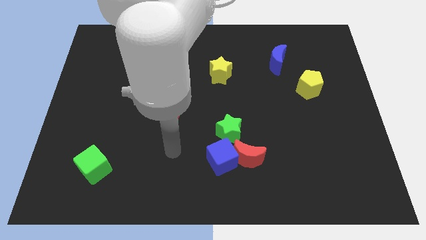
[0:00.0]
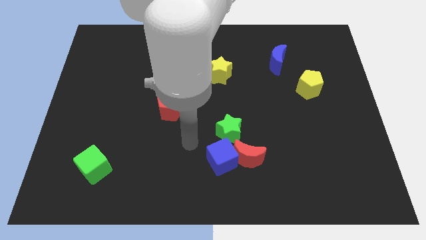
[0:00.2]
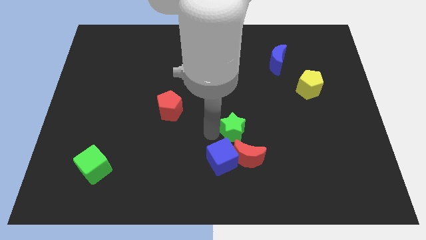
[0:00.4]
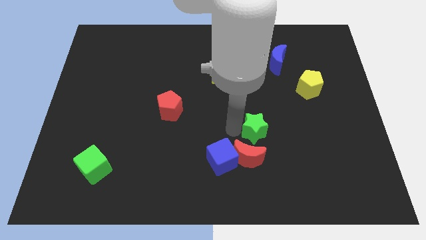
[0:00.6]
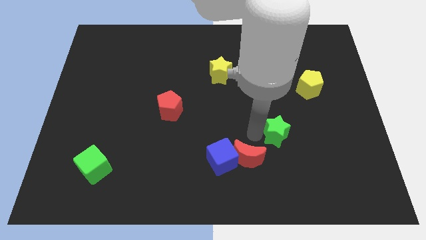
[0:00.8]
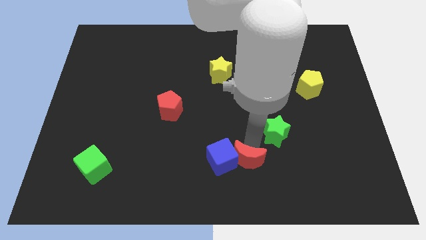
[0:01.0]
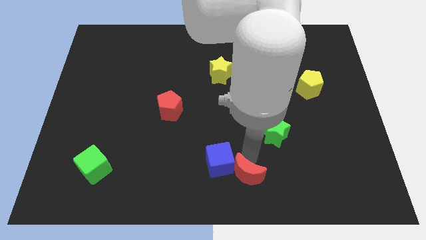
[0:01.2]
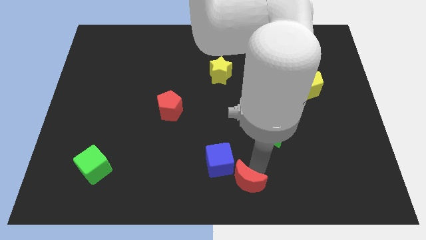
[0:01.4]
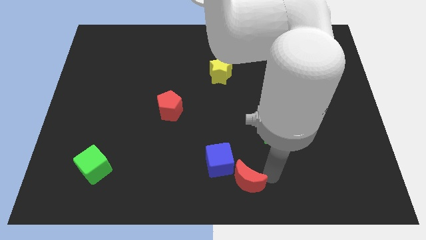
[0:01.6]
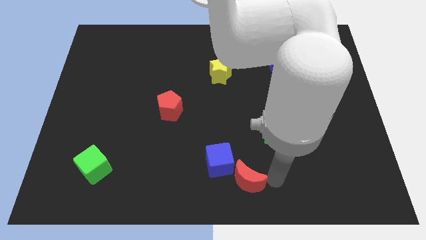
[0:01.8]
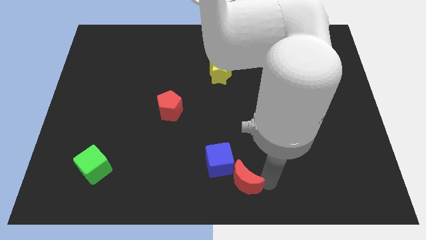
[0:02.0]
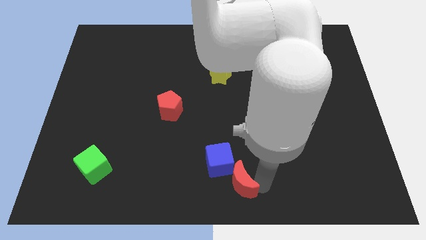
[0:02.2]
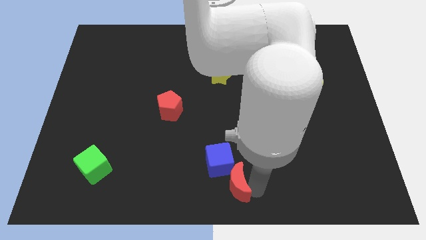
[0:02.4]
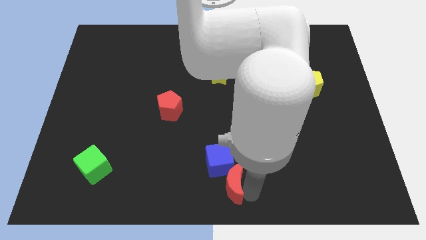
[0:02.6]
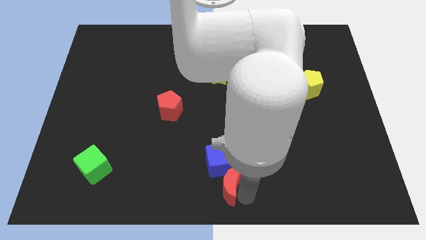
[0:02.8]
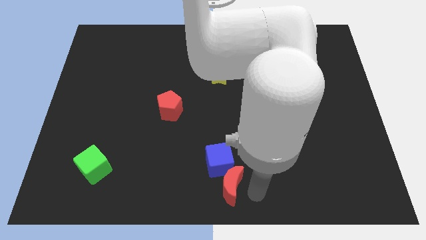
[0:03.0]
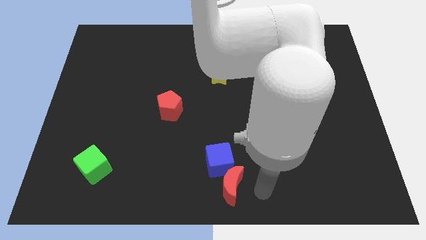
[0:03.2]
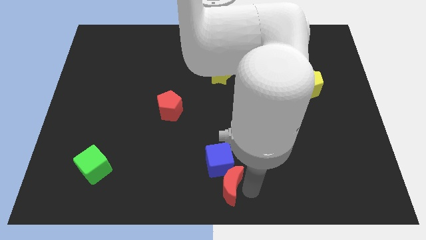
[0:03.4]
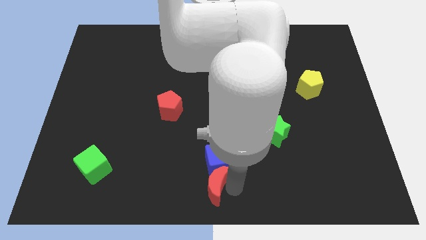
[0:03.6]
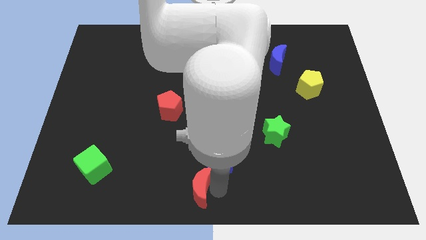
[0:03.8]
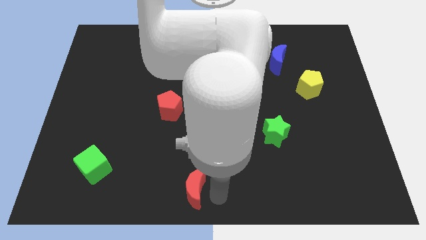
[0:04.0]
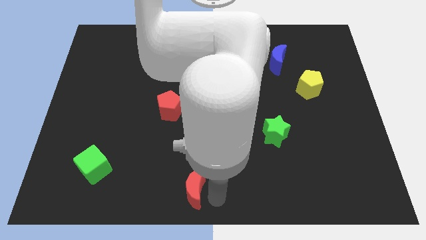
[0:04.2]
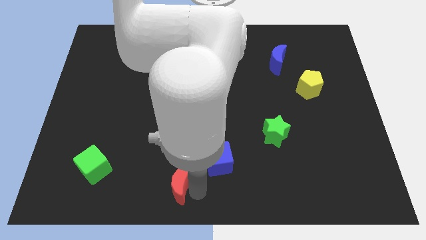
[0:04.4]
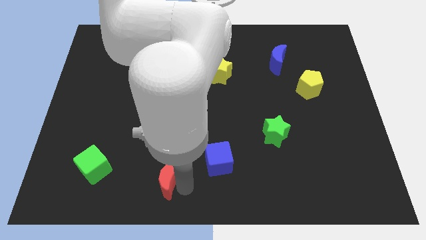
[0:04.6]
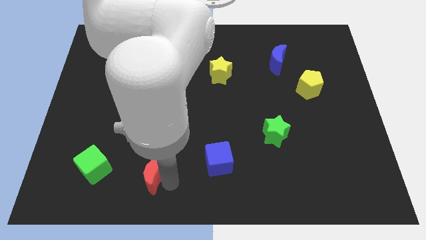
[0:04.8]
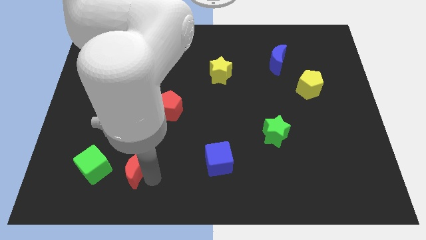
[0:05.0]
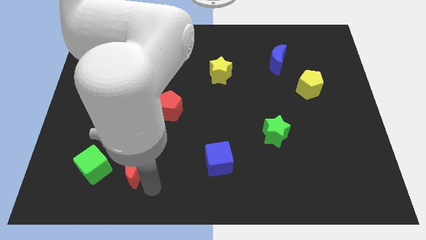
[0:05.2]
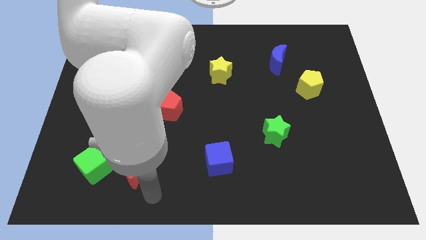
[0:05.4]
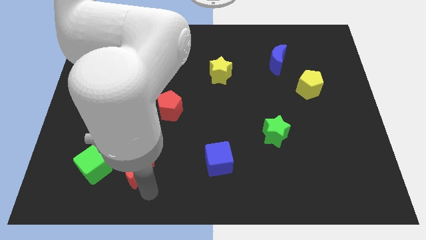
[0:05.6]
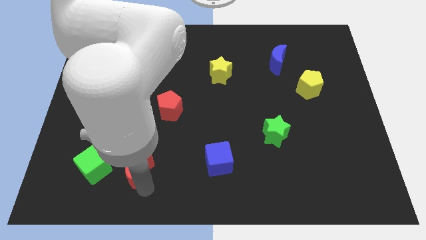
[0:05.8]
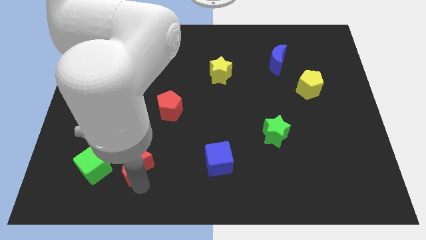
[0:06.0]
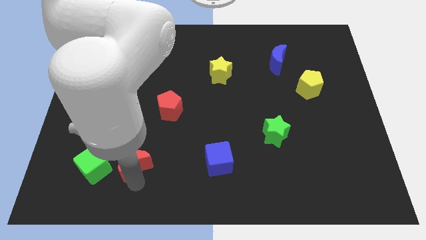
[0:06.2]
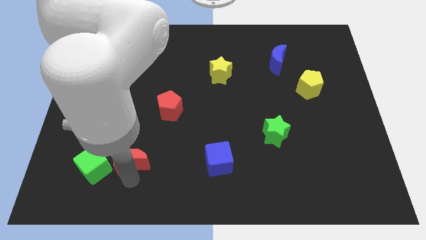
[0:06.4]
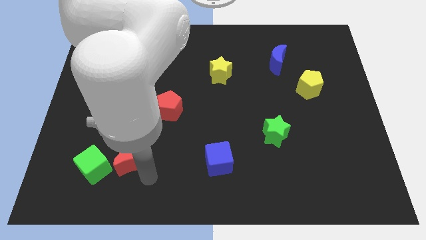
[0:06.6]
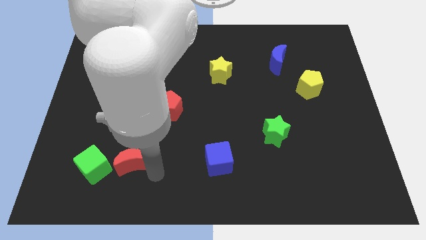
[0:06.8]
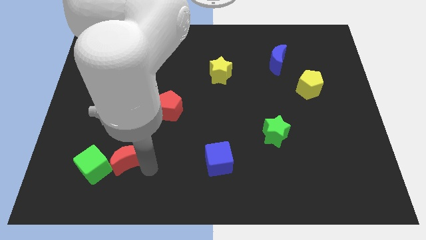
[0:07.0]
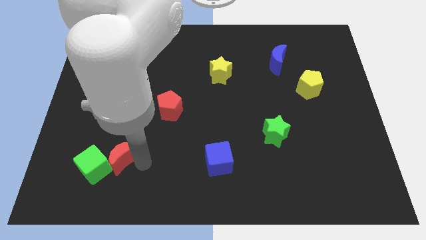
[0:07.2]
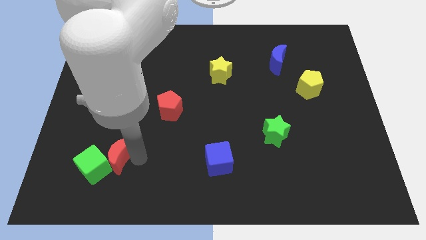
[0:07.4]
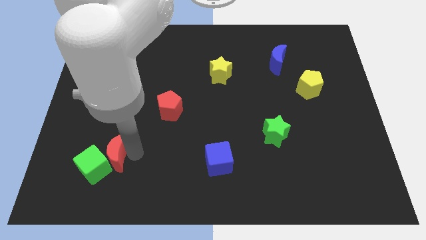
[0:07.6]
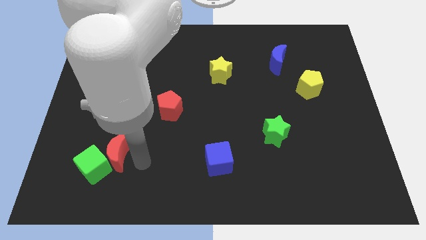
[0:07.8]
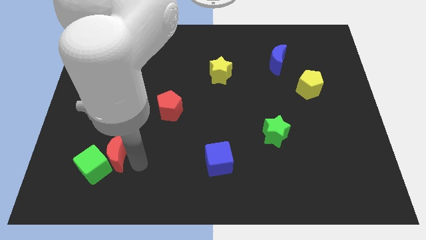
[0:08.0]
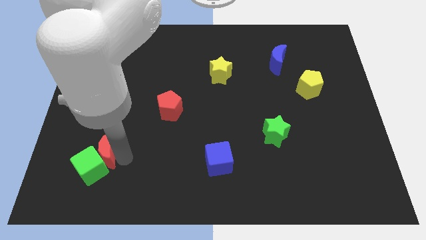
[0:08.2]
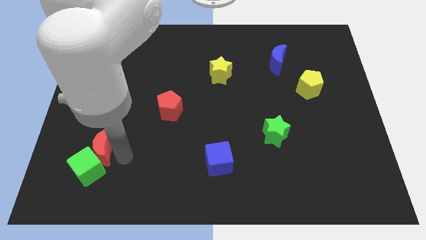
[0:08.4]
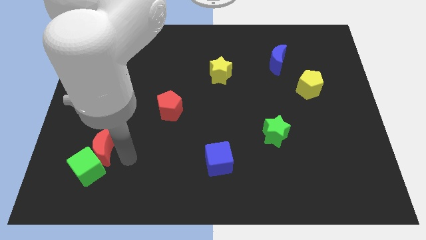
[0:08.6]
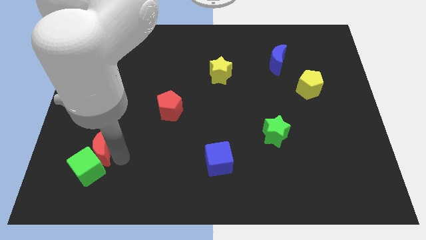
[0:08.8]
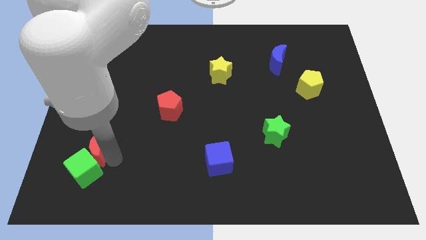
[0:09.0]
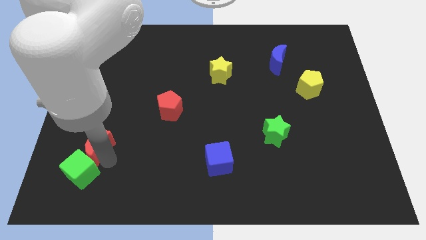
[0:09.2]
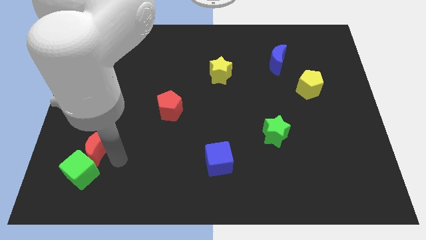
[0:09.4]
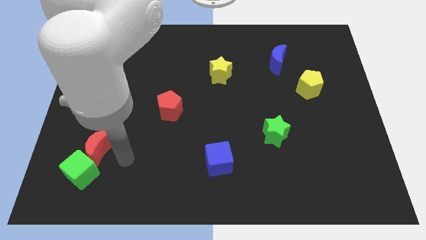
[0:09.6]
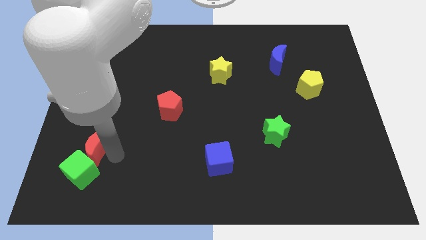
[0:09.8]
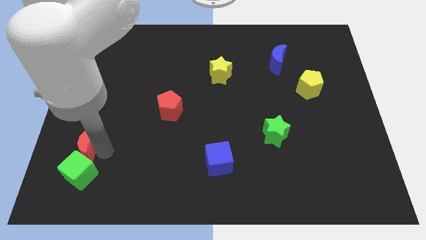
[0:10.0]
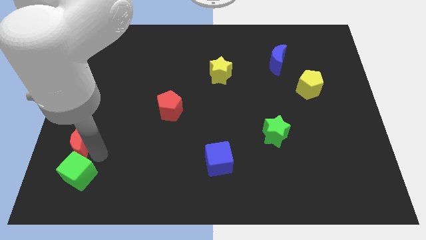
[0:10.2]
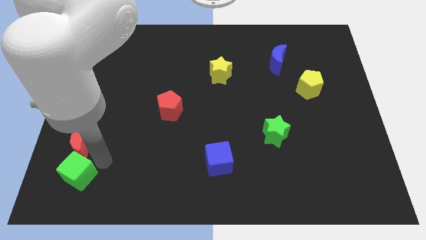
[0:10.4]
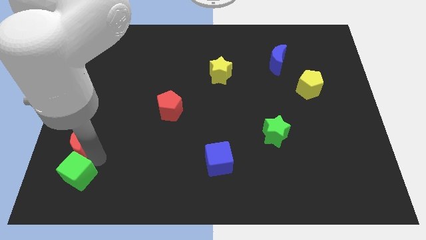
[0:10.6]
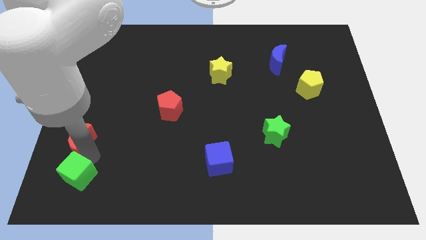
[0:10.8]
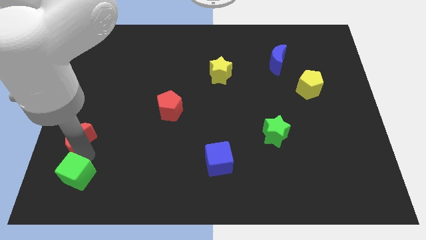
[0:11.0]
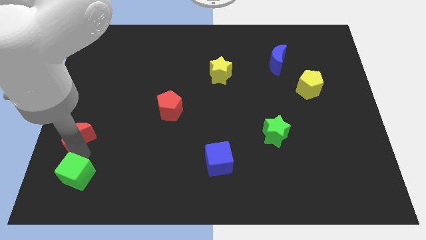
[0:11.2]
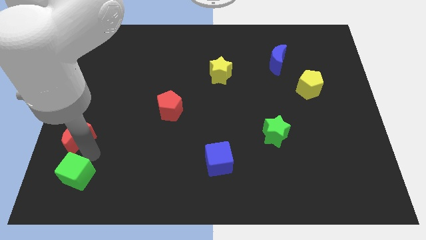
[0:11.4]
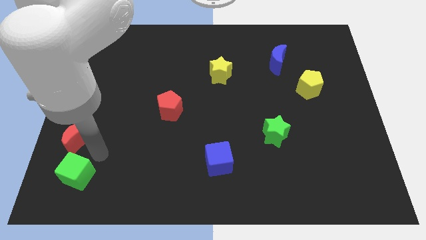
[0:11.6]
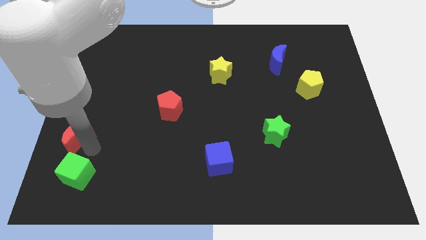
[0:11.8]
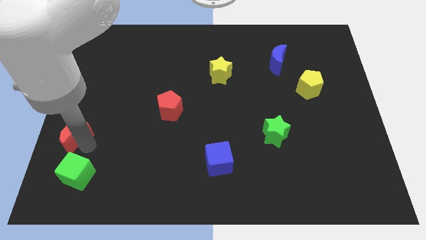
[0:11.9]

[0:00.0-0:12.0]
slide the red moon to the left side

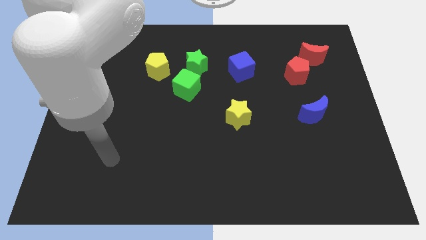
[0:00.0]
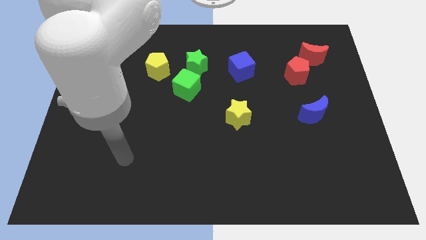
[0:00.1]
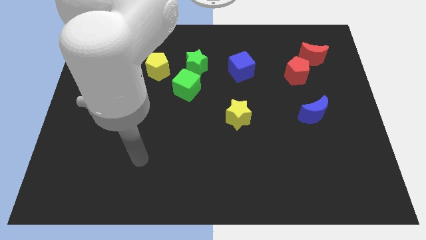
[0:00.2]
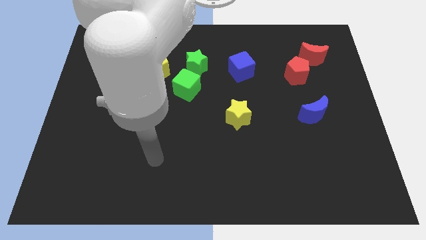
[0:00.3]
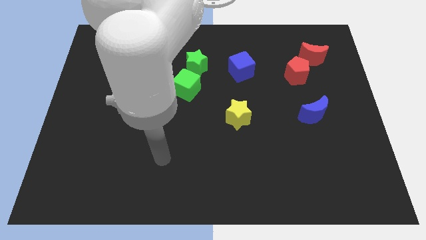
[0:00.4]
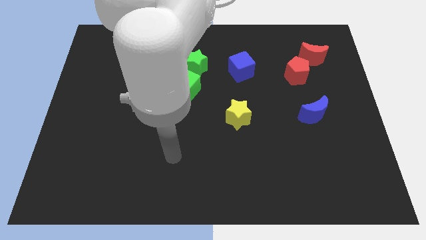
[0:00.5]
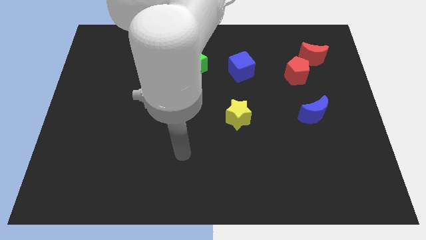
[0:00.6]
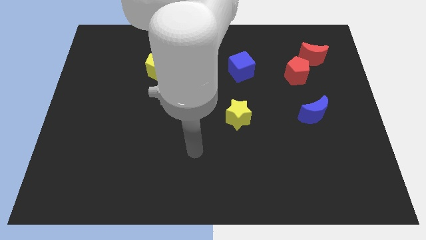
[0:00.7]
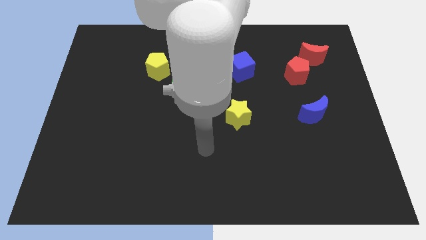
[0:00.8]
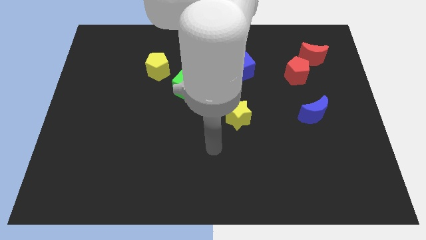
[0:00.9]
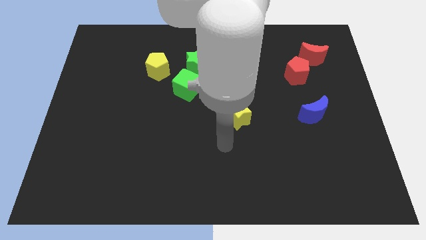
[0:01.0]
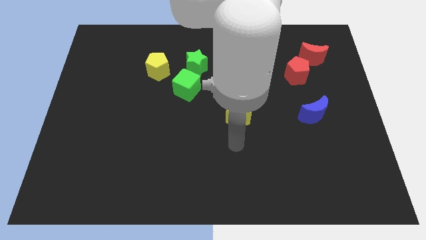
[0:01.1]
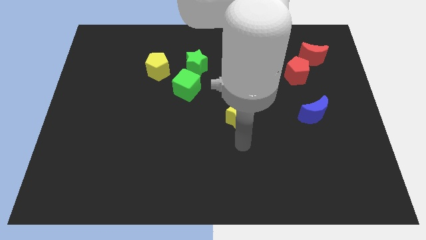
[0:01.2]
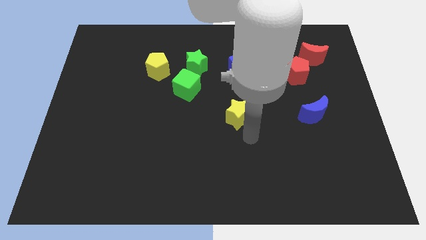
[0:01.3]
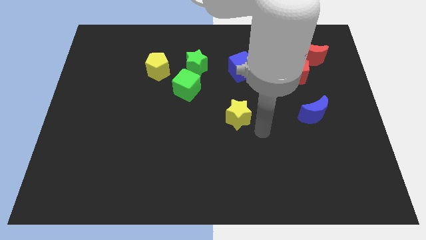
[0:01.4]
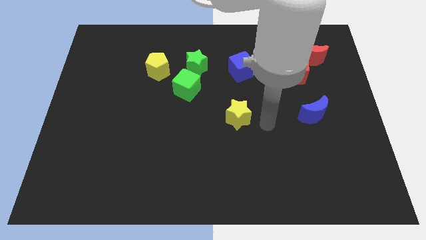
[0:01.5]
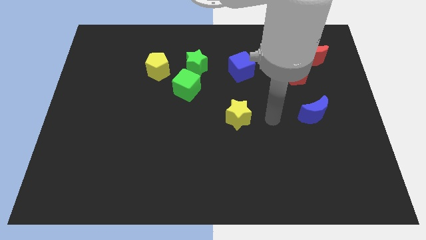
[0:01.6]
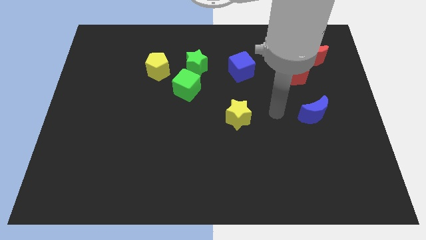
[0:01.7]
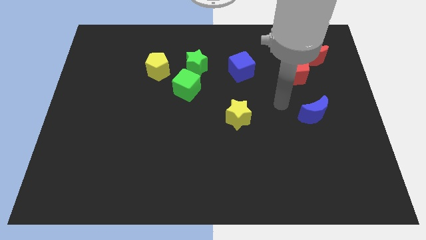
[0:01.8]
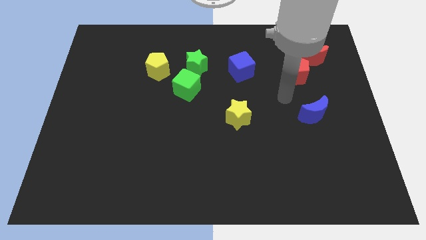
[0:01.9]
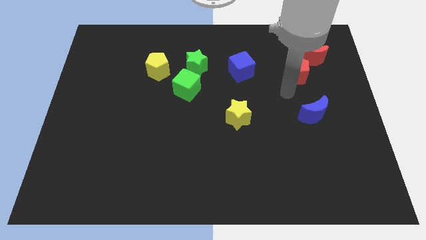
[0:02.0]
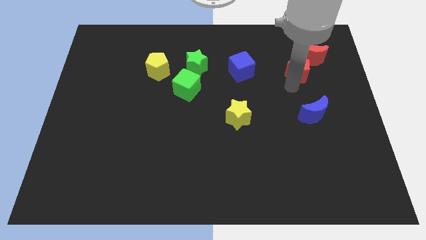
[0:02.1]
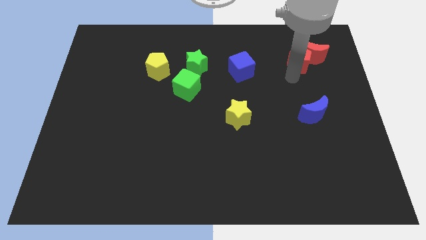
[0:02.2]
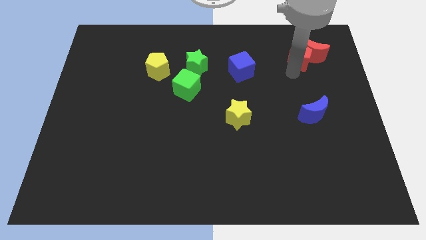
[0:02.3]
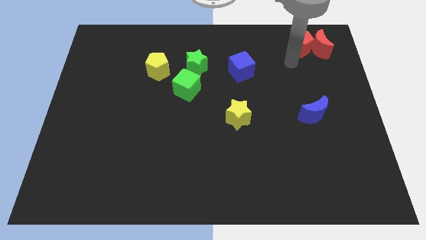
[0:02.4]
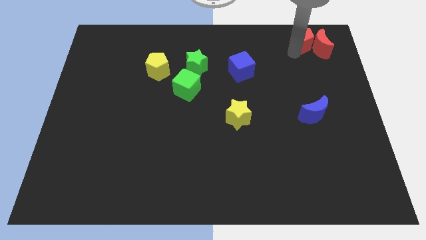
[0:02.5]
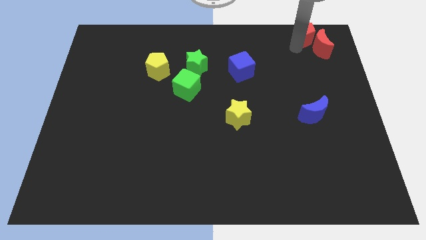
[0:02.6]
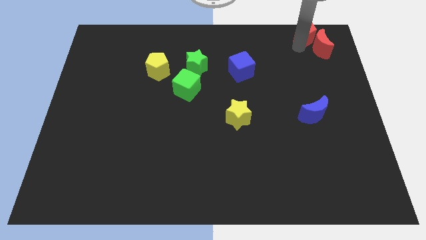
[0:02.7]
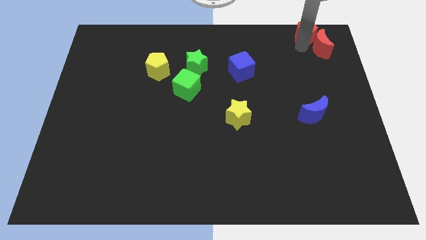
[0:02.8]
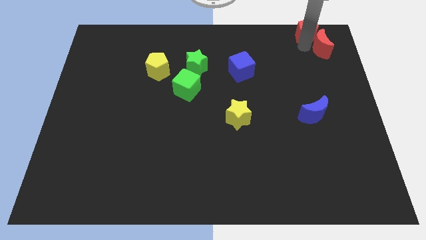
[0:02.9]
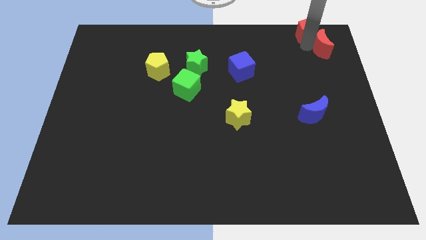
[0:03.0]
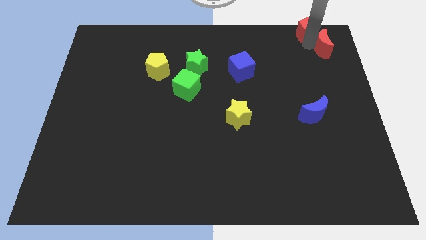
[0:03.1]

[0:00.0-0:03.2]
move the red moon to the upper right corner
